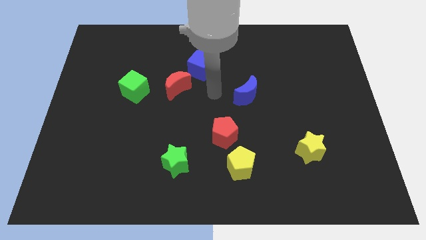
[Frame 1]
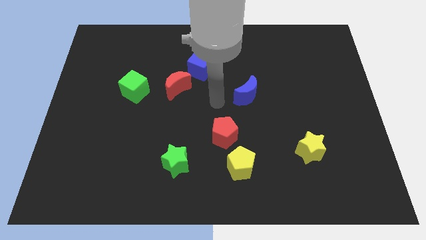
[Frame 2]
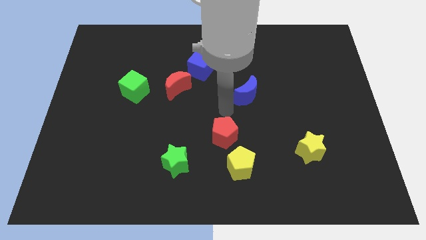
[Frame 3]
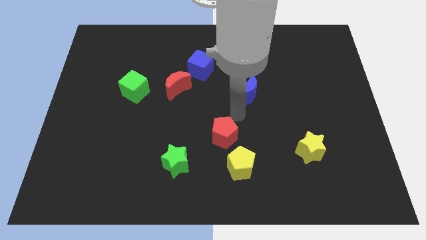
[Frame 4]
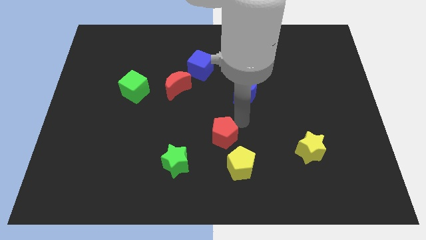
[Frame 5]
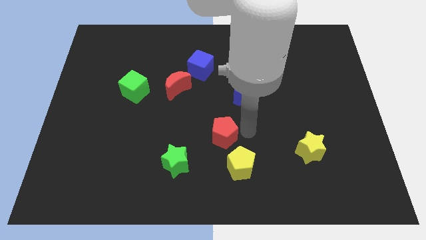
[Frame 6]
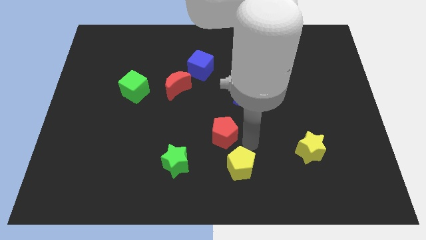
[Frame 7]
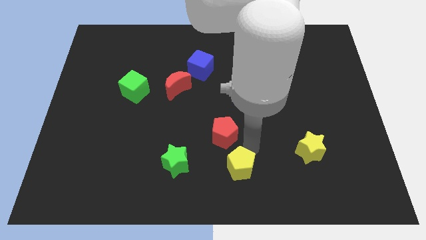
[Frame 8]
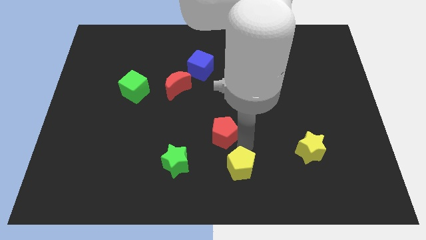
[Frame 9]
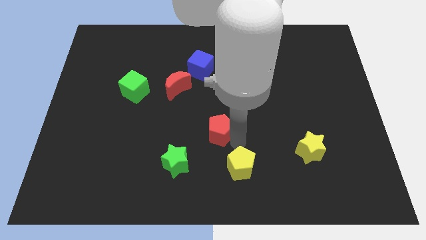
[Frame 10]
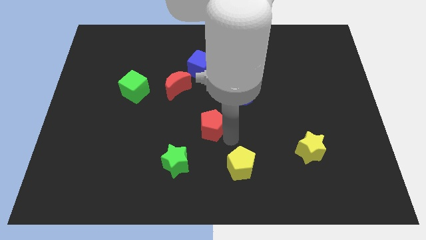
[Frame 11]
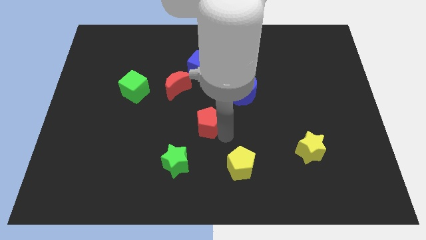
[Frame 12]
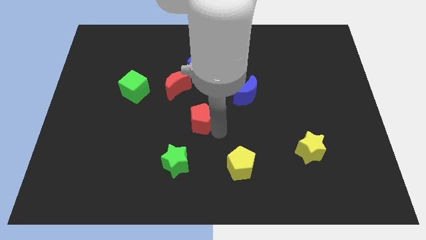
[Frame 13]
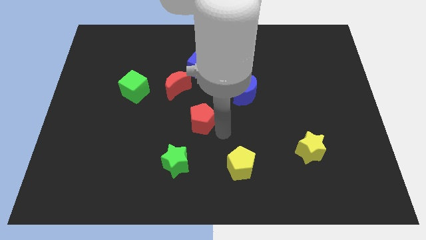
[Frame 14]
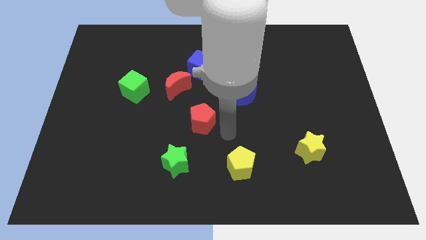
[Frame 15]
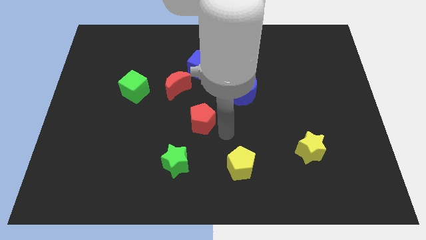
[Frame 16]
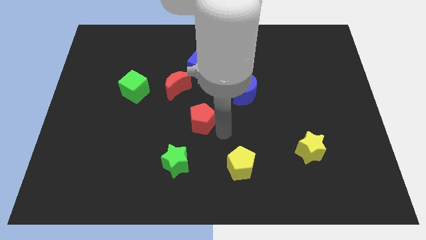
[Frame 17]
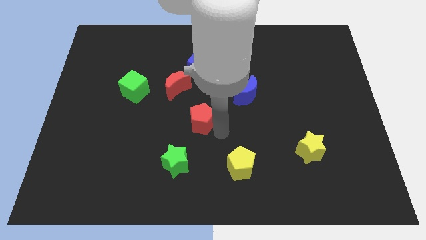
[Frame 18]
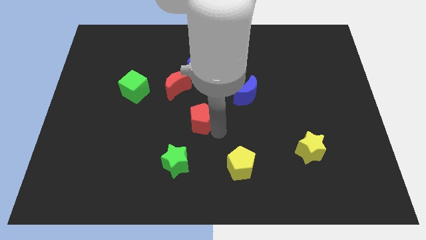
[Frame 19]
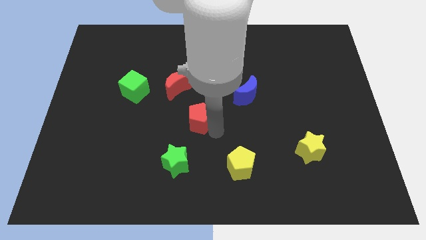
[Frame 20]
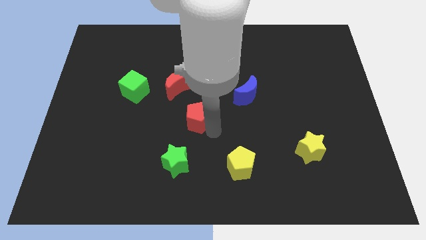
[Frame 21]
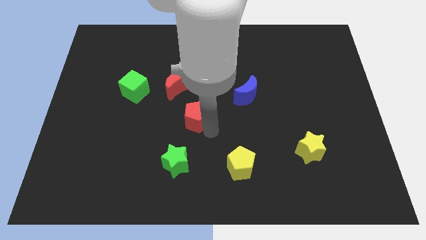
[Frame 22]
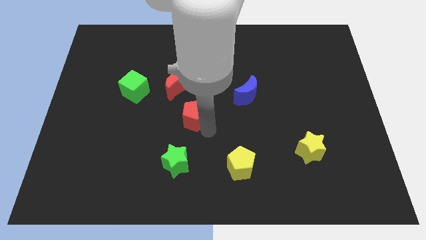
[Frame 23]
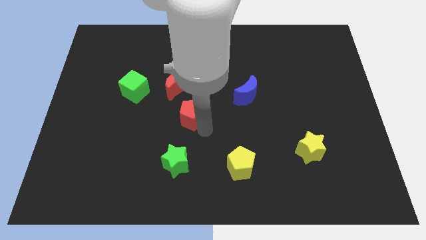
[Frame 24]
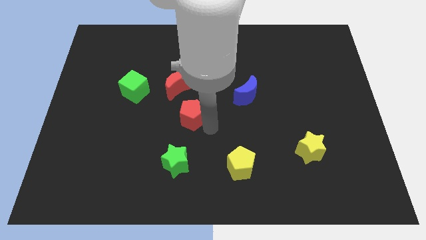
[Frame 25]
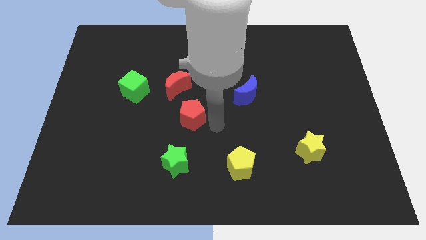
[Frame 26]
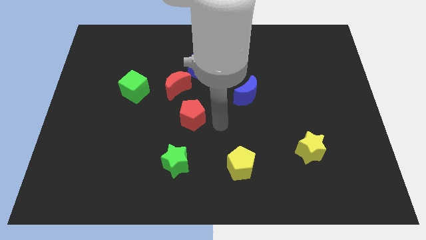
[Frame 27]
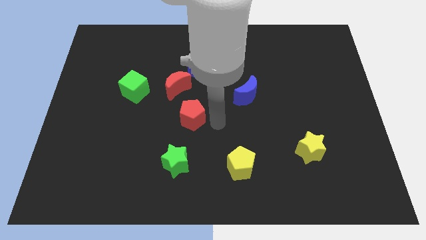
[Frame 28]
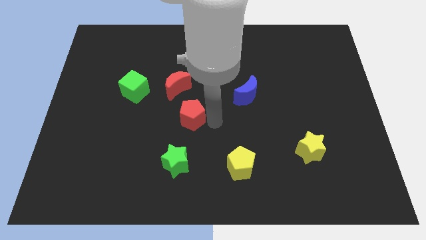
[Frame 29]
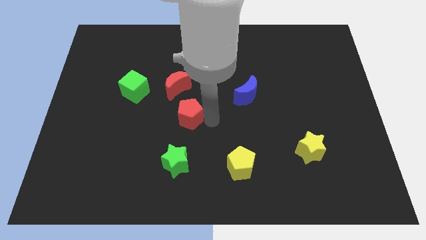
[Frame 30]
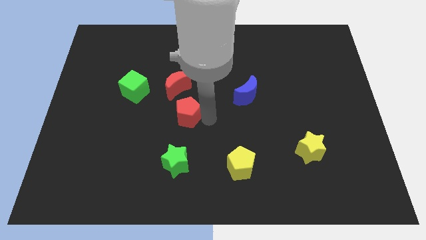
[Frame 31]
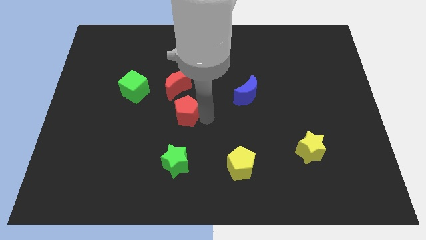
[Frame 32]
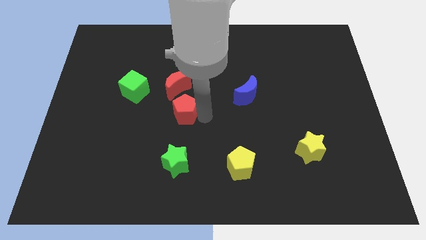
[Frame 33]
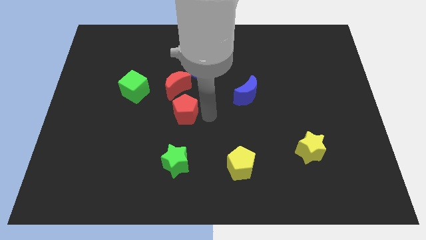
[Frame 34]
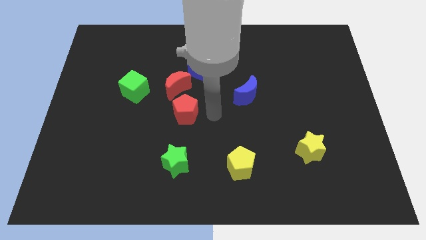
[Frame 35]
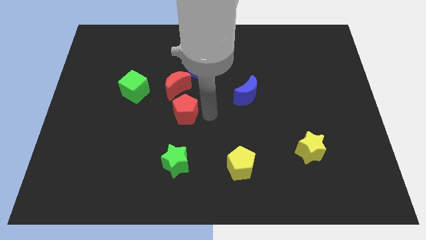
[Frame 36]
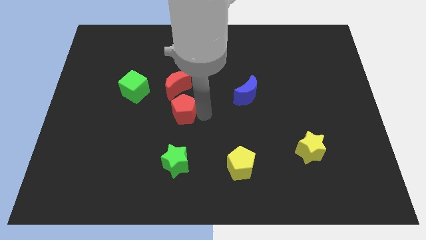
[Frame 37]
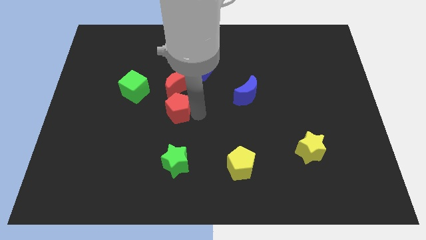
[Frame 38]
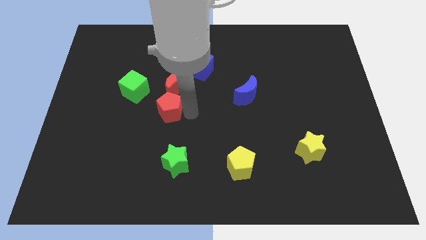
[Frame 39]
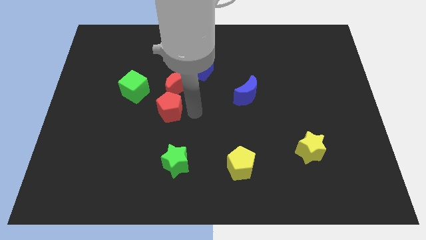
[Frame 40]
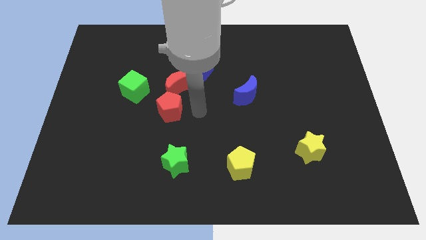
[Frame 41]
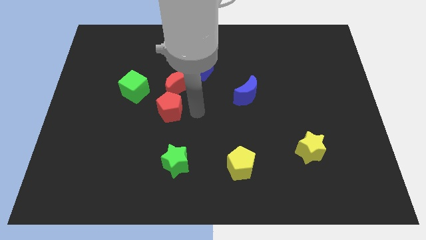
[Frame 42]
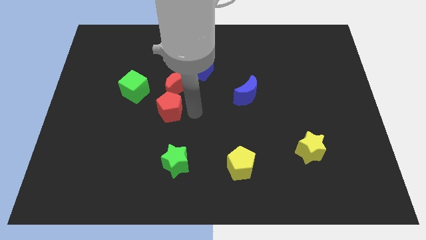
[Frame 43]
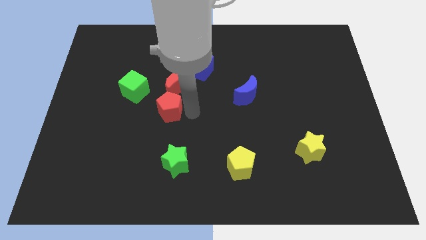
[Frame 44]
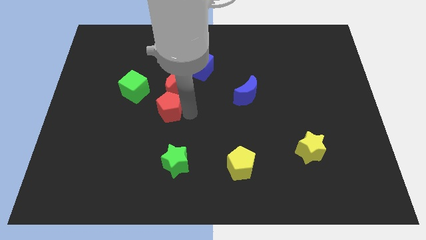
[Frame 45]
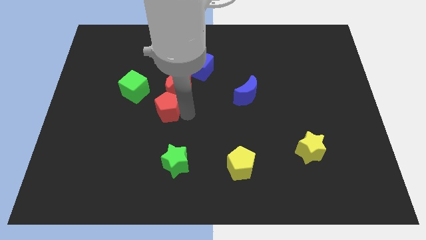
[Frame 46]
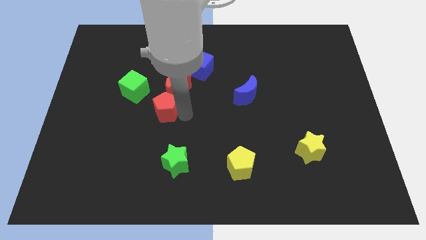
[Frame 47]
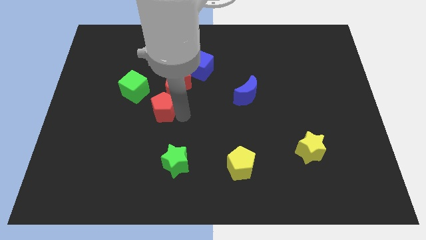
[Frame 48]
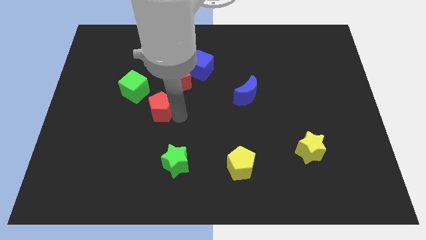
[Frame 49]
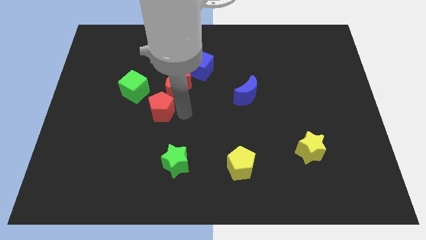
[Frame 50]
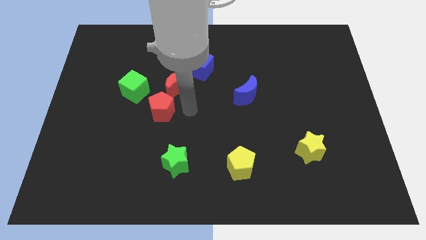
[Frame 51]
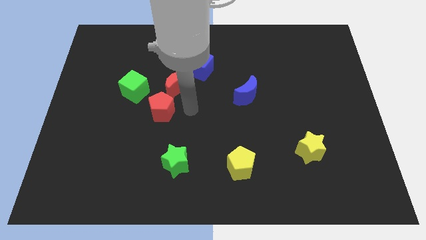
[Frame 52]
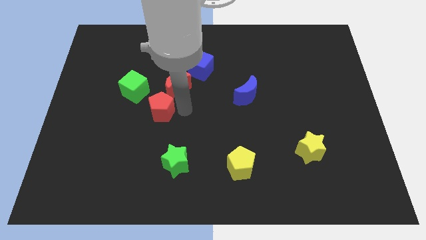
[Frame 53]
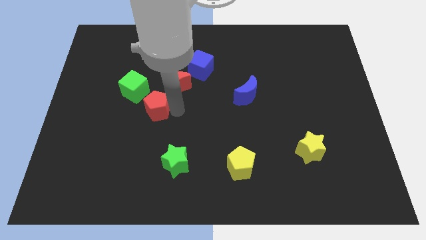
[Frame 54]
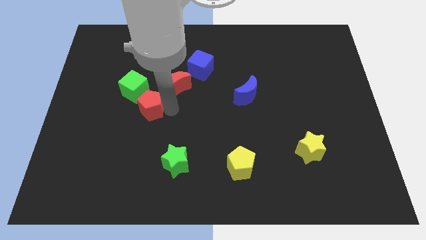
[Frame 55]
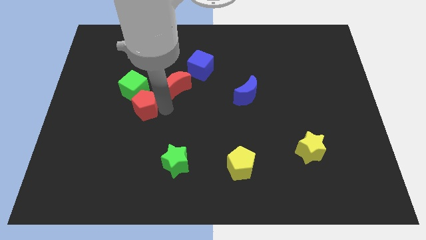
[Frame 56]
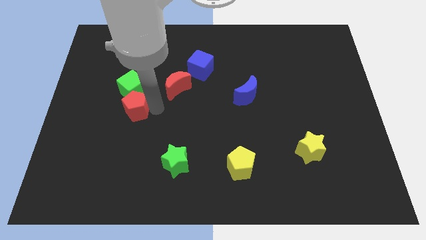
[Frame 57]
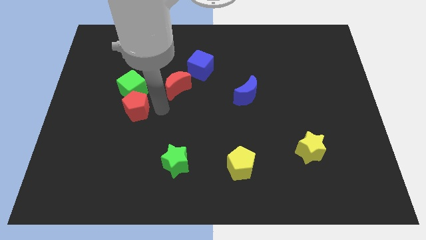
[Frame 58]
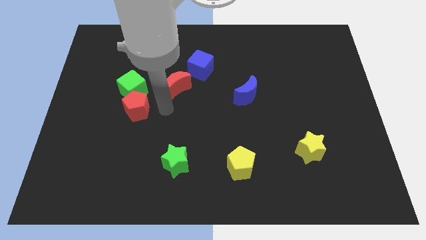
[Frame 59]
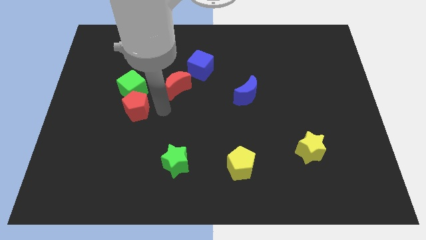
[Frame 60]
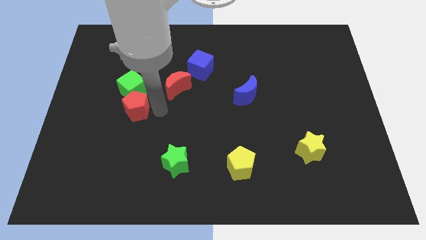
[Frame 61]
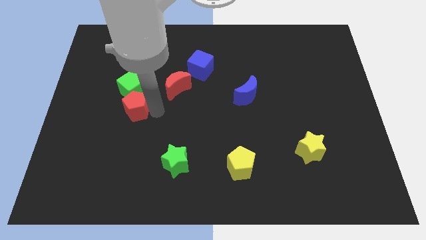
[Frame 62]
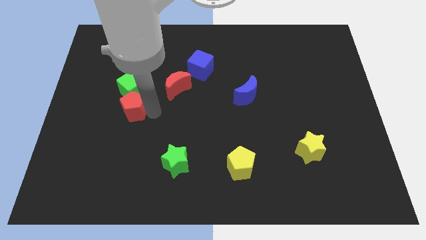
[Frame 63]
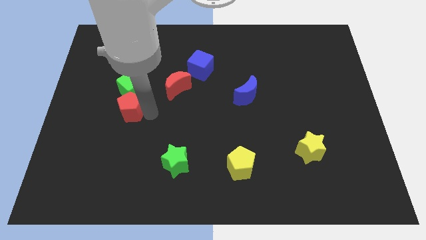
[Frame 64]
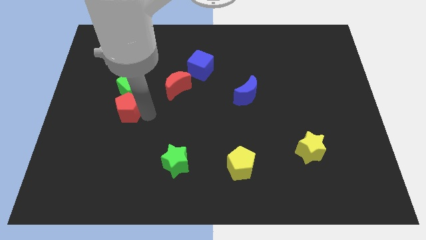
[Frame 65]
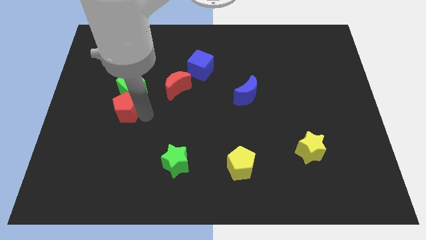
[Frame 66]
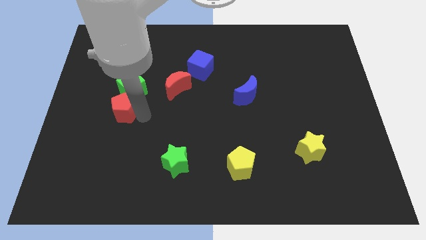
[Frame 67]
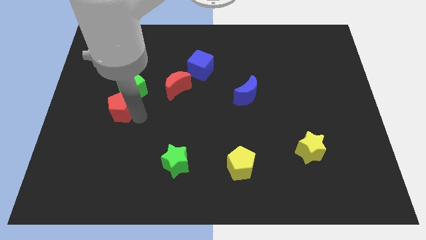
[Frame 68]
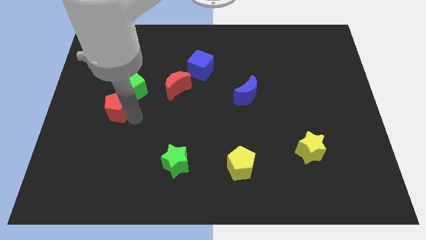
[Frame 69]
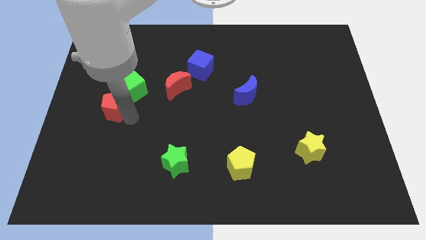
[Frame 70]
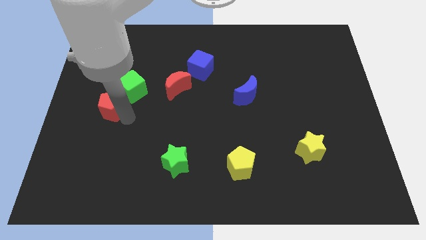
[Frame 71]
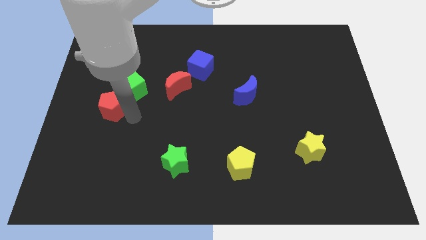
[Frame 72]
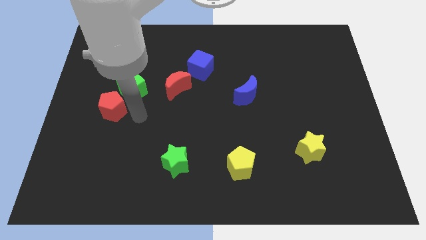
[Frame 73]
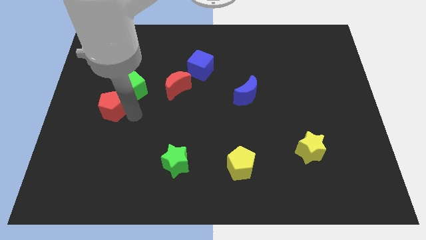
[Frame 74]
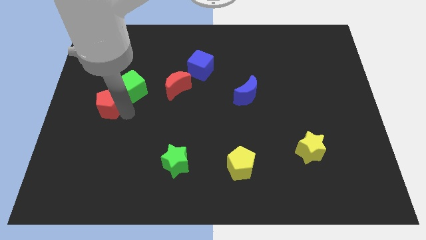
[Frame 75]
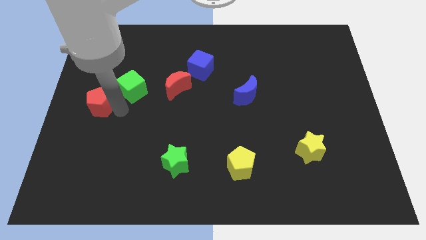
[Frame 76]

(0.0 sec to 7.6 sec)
push the red pentagon to the left side of the board
